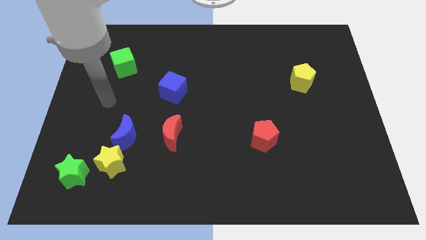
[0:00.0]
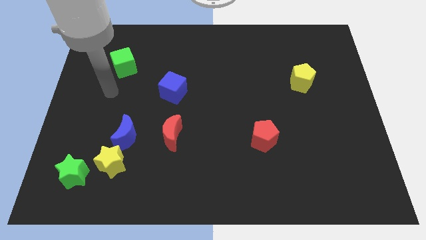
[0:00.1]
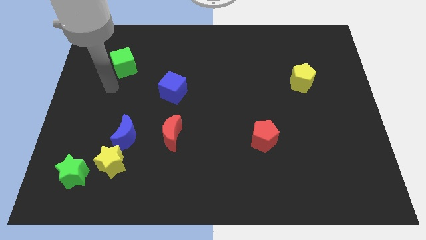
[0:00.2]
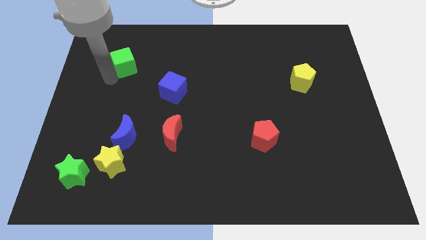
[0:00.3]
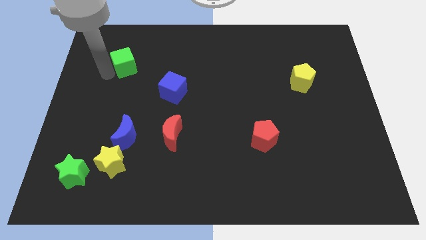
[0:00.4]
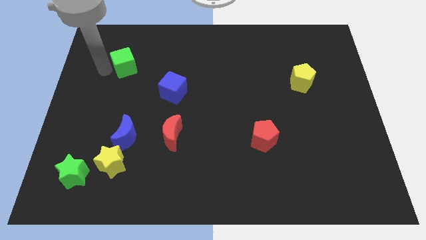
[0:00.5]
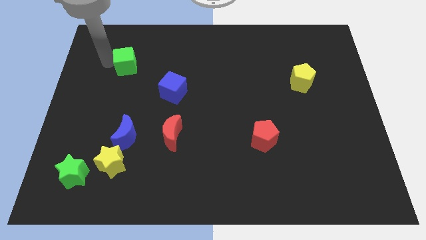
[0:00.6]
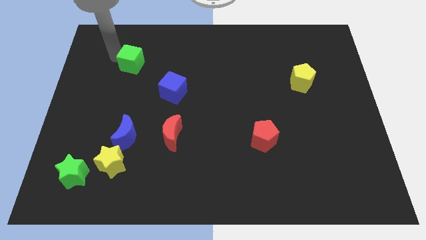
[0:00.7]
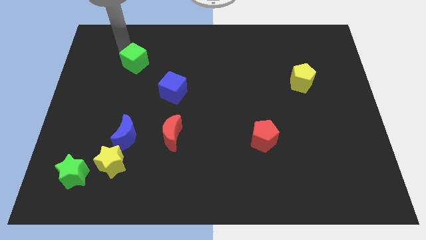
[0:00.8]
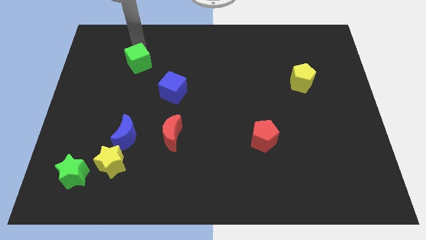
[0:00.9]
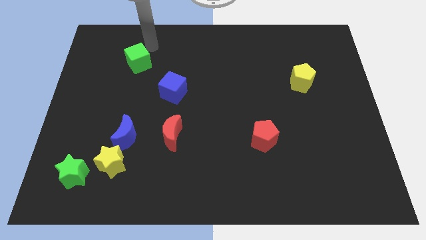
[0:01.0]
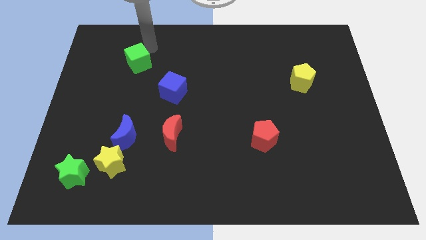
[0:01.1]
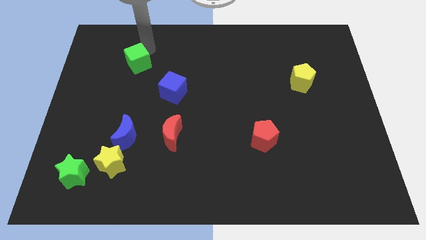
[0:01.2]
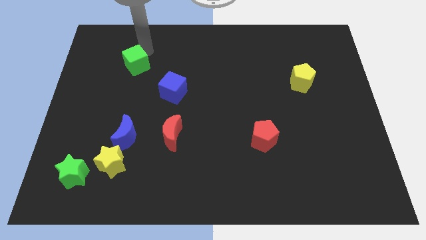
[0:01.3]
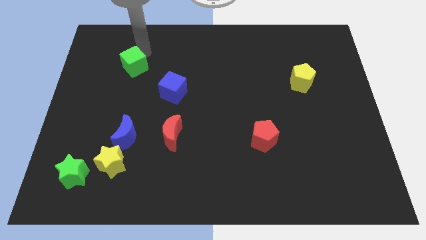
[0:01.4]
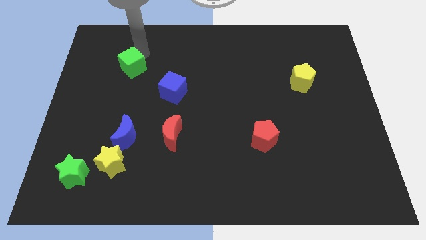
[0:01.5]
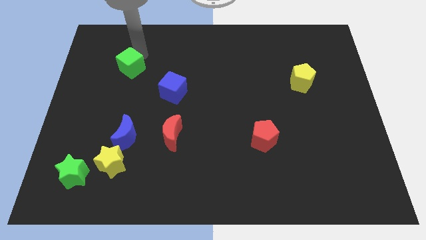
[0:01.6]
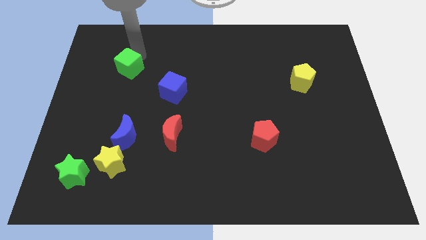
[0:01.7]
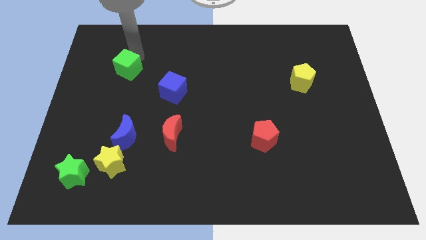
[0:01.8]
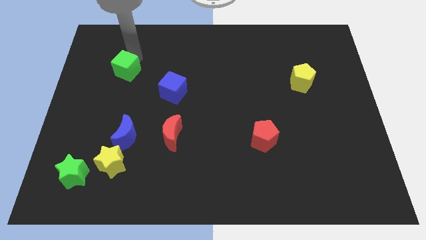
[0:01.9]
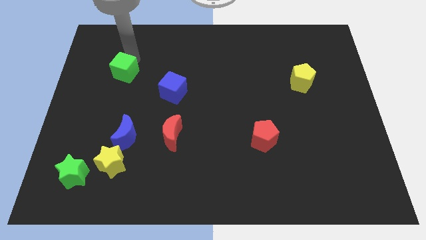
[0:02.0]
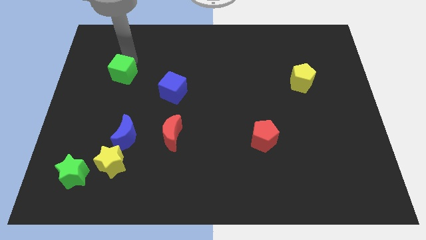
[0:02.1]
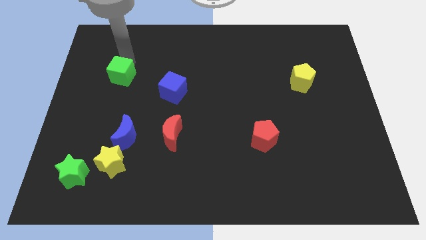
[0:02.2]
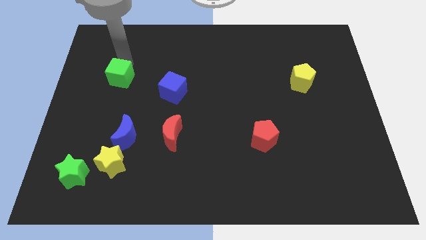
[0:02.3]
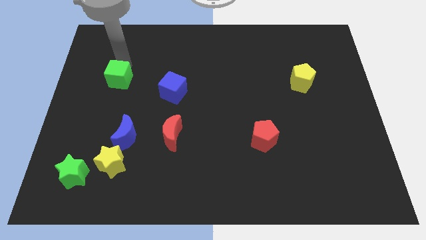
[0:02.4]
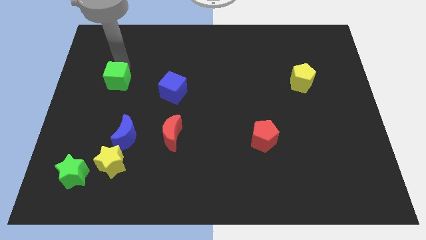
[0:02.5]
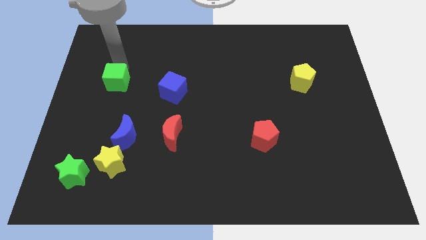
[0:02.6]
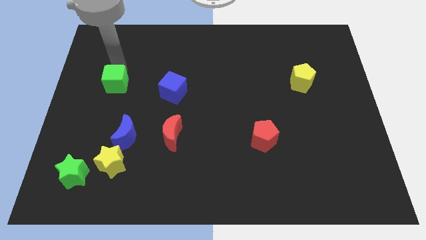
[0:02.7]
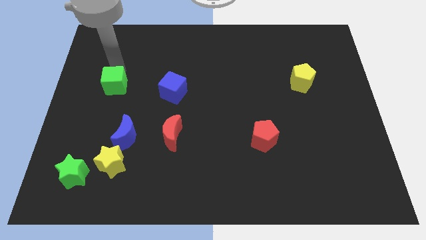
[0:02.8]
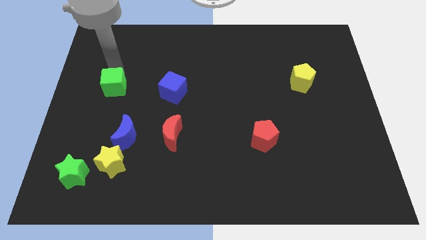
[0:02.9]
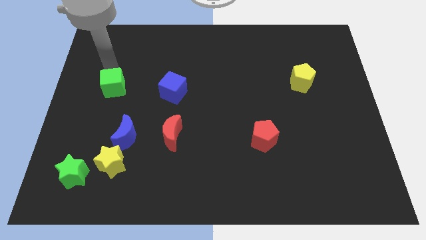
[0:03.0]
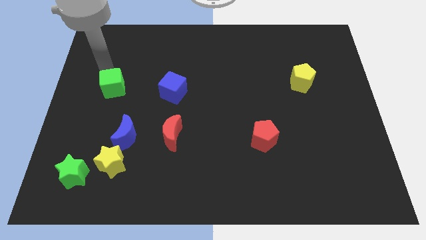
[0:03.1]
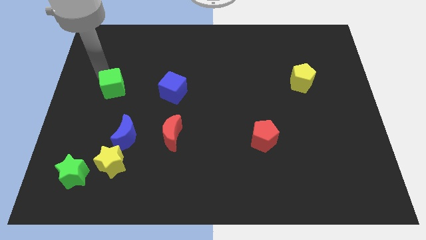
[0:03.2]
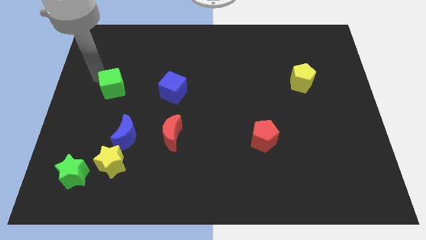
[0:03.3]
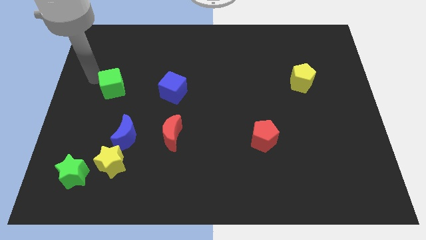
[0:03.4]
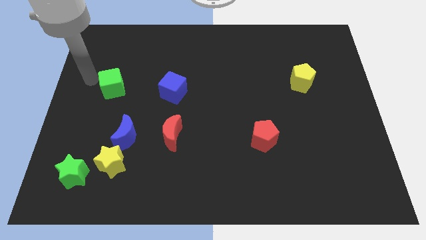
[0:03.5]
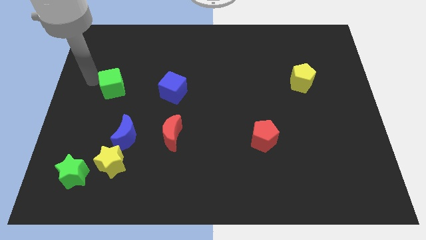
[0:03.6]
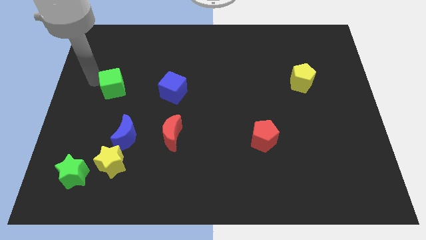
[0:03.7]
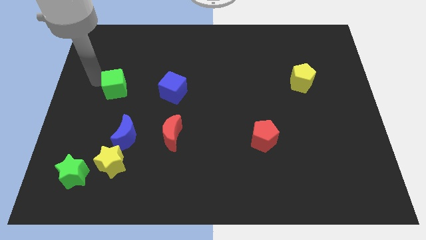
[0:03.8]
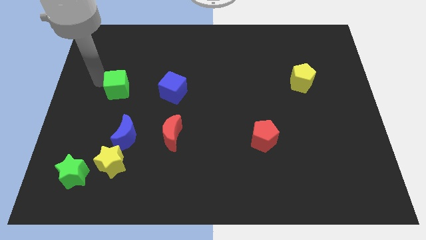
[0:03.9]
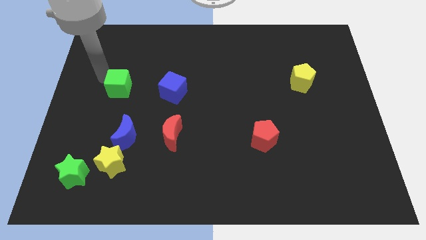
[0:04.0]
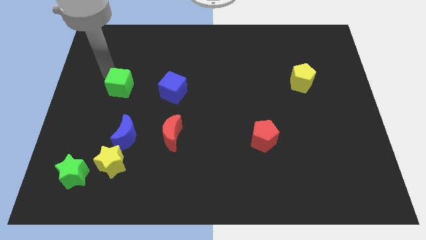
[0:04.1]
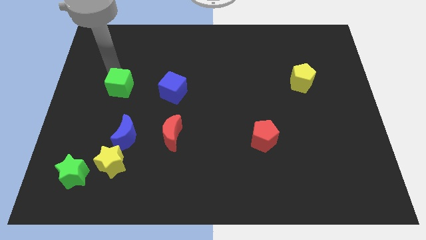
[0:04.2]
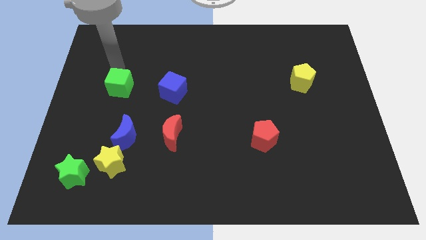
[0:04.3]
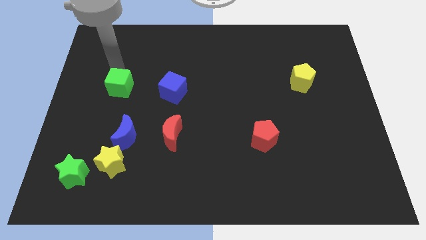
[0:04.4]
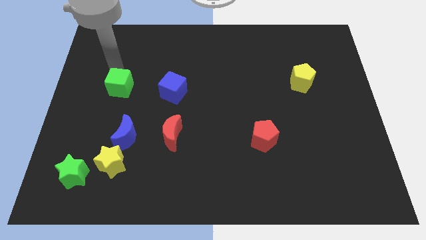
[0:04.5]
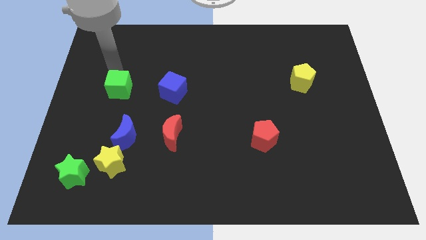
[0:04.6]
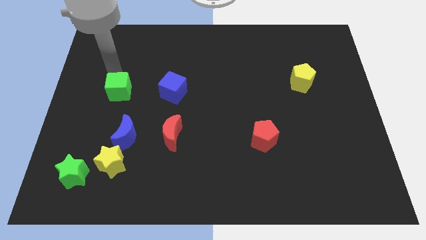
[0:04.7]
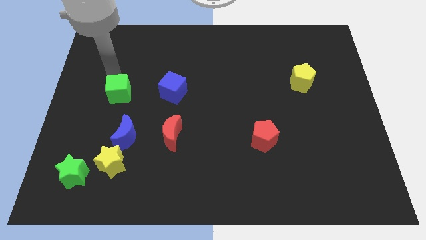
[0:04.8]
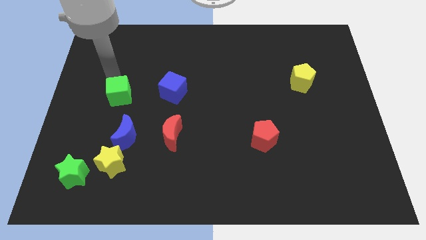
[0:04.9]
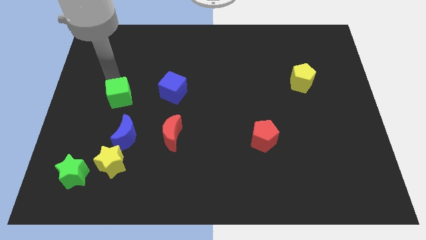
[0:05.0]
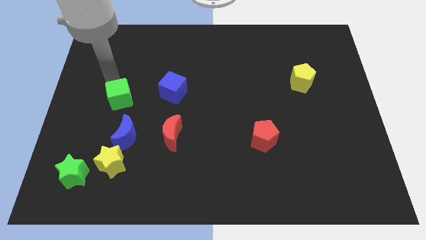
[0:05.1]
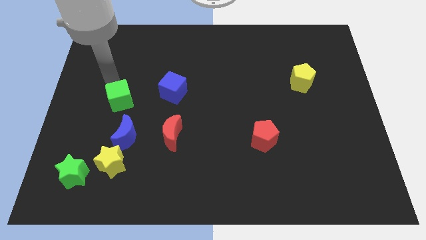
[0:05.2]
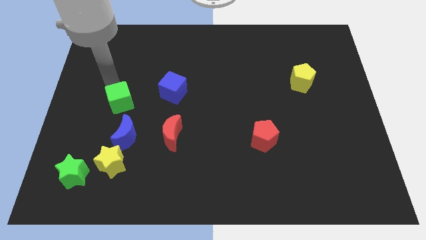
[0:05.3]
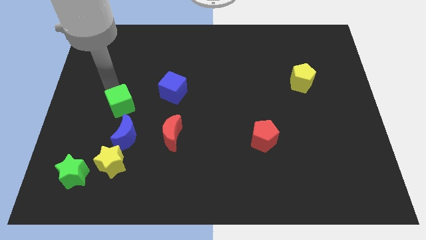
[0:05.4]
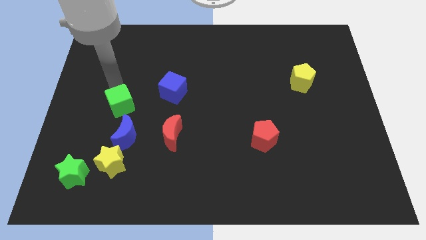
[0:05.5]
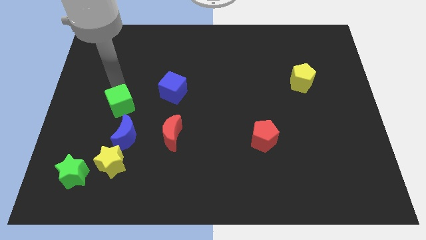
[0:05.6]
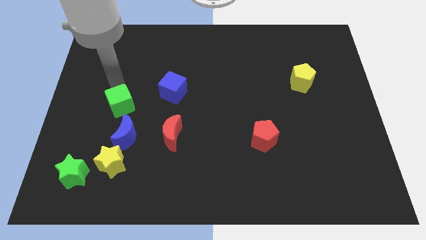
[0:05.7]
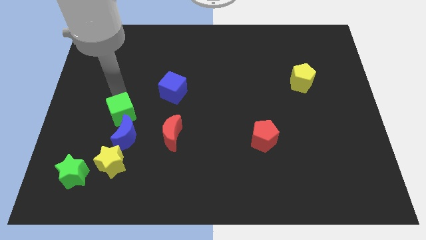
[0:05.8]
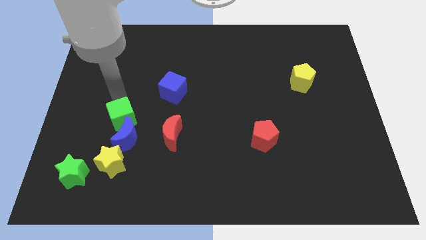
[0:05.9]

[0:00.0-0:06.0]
push the green cube towards the blue moon
